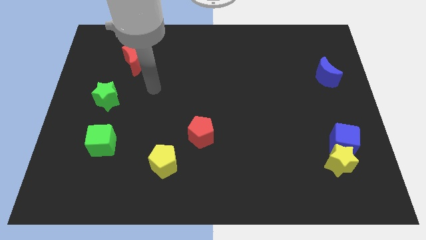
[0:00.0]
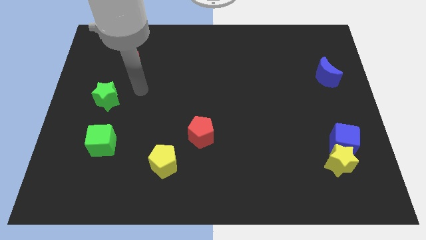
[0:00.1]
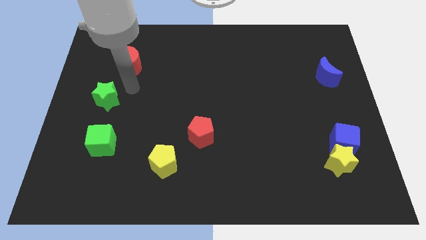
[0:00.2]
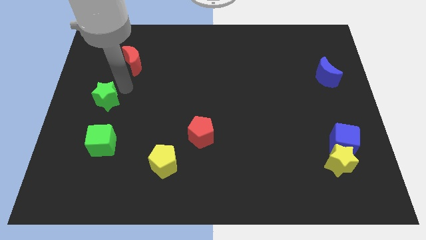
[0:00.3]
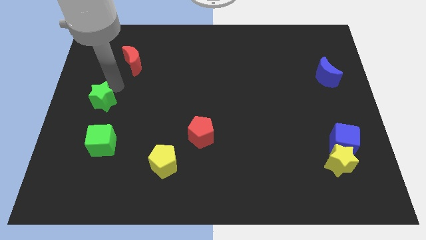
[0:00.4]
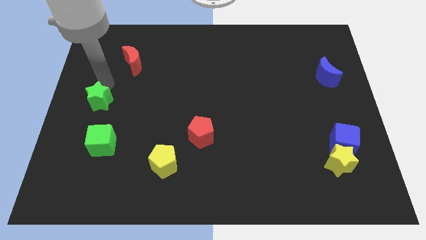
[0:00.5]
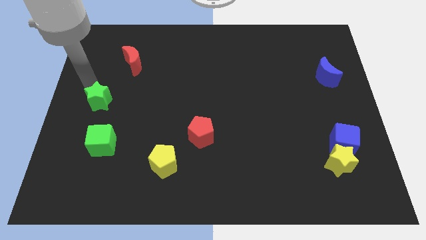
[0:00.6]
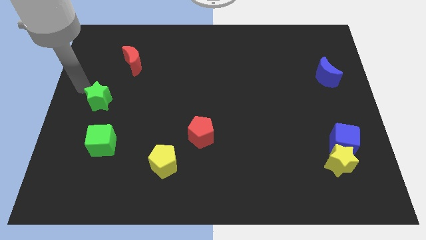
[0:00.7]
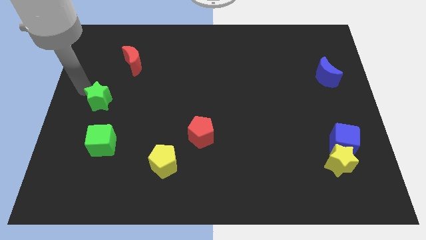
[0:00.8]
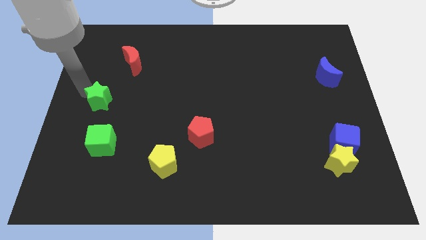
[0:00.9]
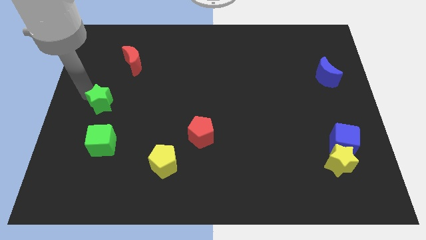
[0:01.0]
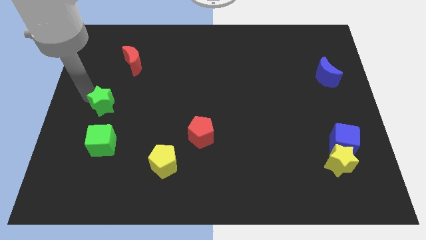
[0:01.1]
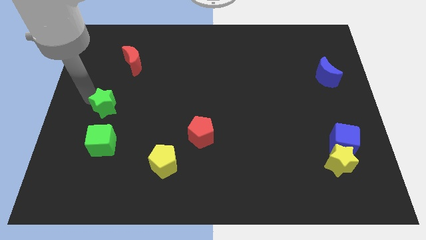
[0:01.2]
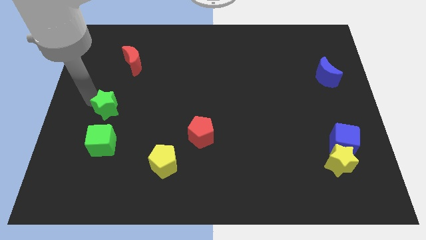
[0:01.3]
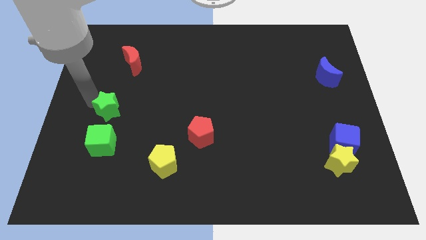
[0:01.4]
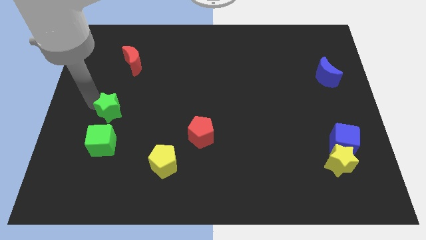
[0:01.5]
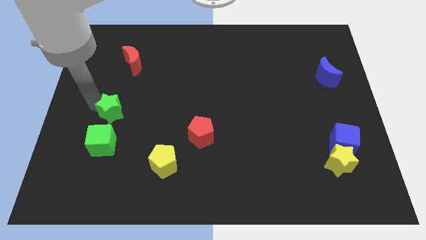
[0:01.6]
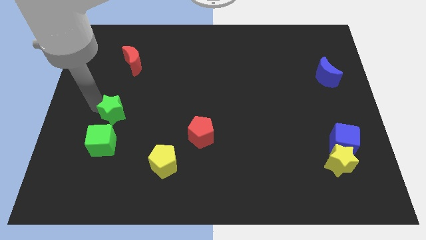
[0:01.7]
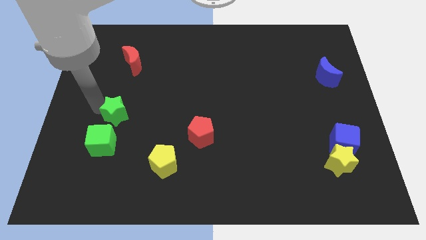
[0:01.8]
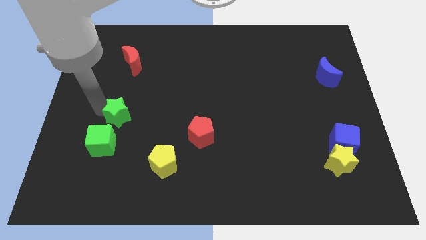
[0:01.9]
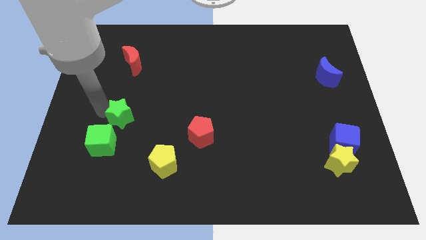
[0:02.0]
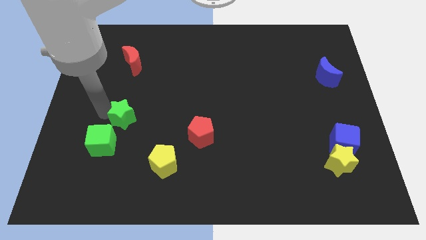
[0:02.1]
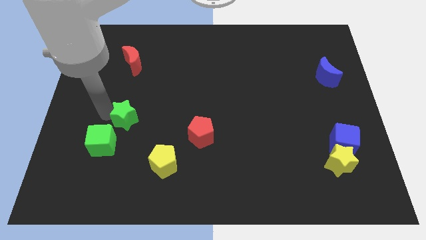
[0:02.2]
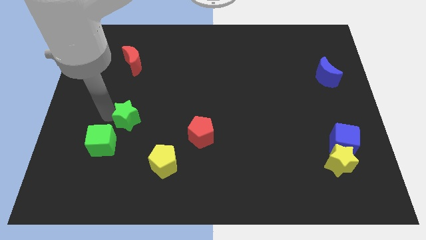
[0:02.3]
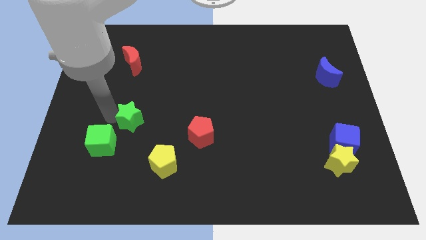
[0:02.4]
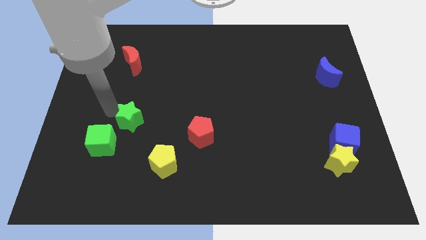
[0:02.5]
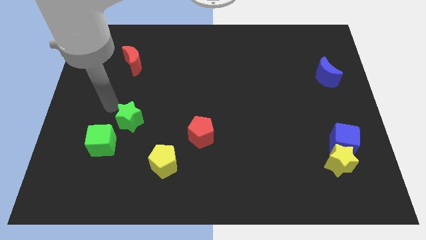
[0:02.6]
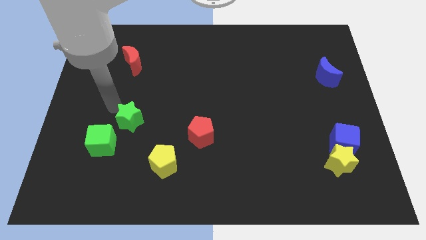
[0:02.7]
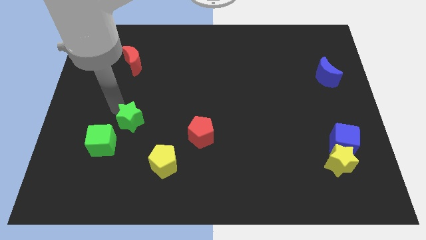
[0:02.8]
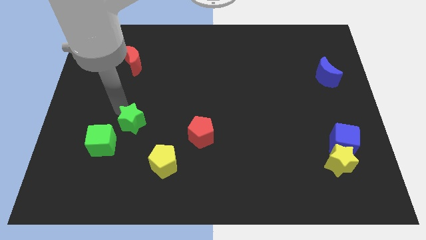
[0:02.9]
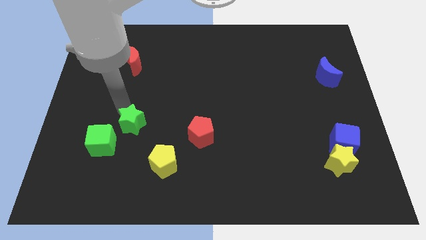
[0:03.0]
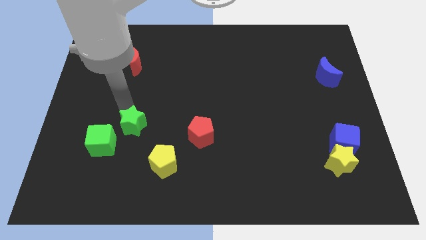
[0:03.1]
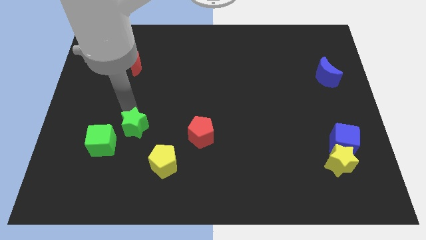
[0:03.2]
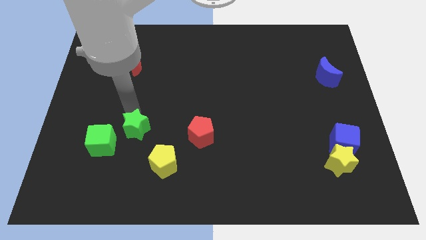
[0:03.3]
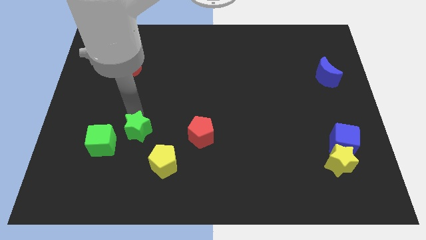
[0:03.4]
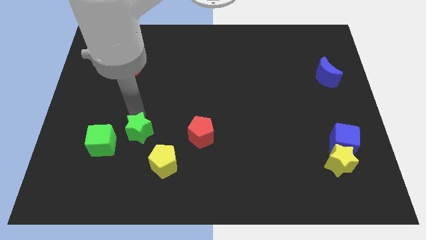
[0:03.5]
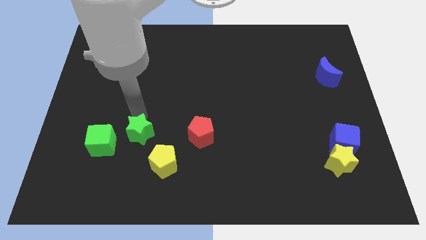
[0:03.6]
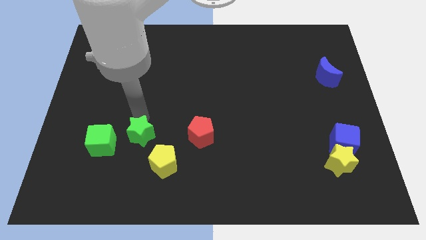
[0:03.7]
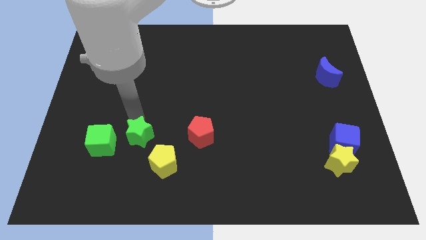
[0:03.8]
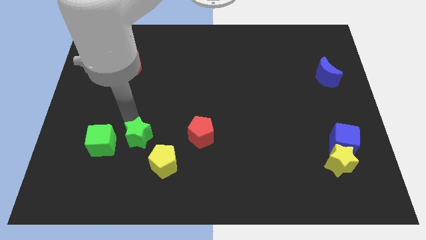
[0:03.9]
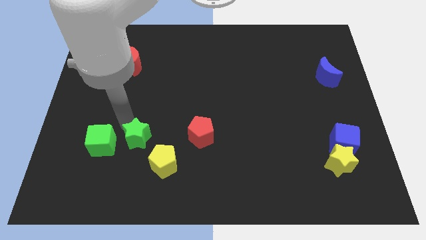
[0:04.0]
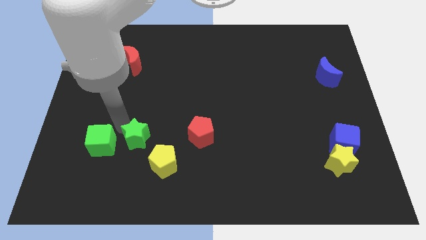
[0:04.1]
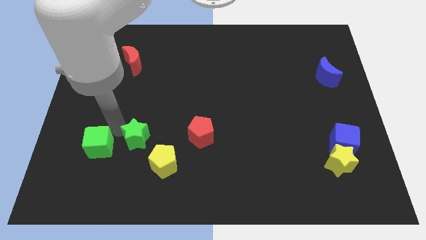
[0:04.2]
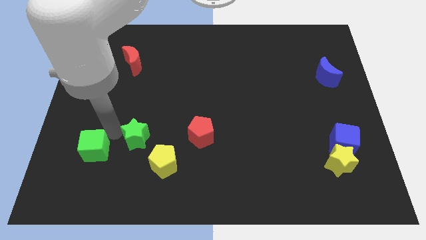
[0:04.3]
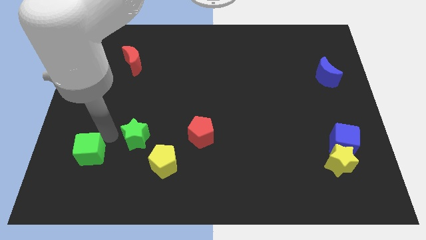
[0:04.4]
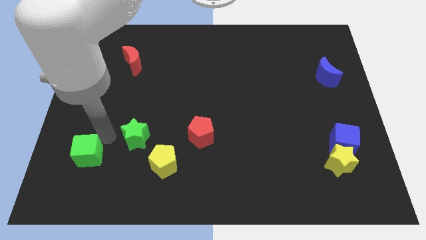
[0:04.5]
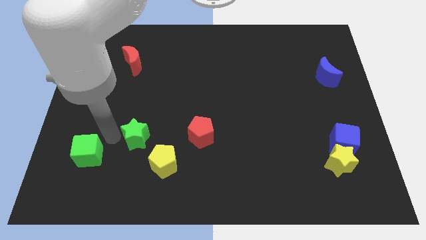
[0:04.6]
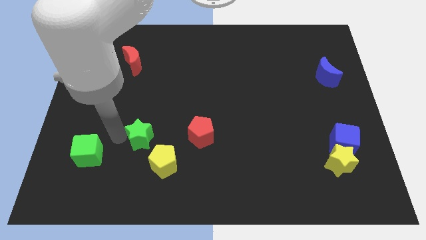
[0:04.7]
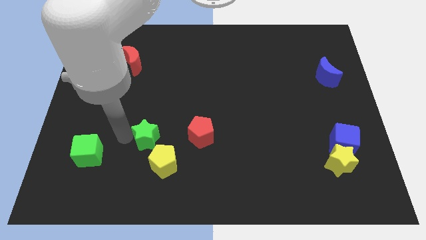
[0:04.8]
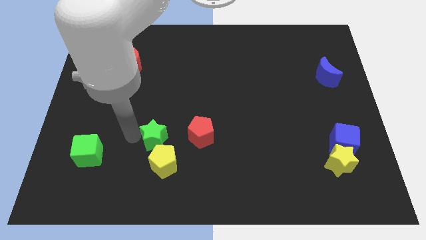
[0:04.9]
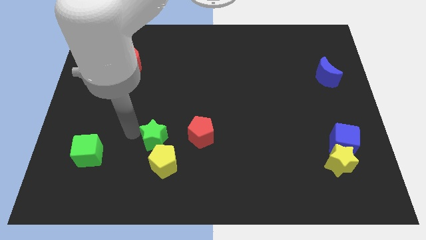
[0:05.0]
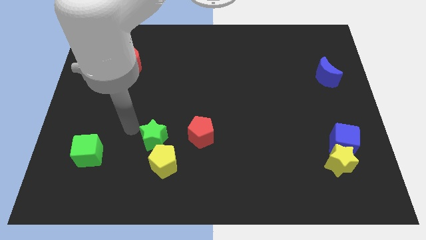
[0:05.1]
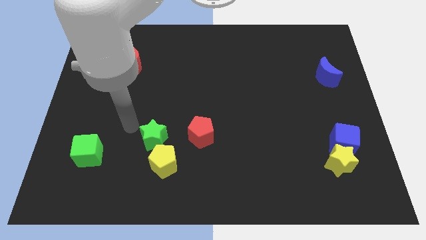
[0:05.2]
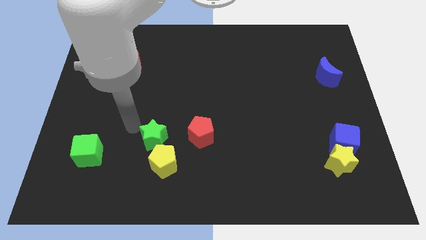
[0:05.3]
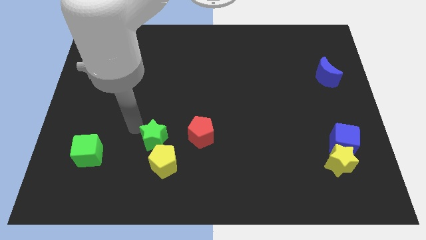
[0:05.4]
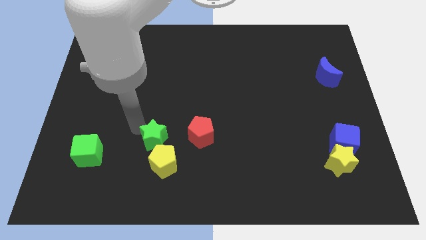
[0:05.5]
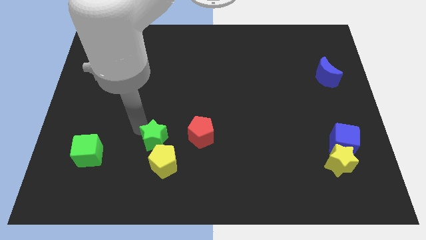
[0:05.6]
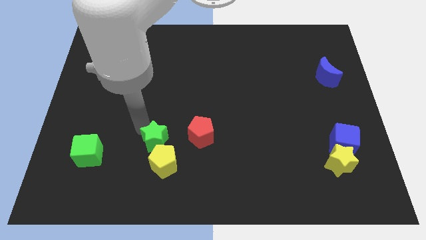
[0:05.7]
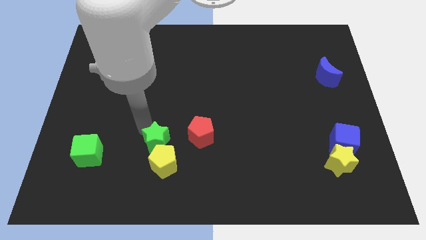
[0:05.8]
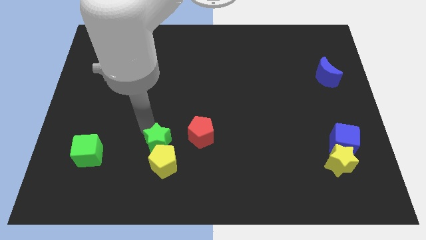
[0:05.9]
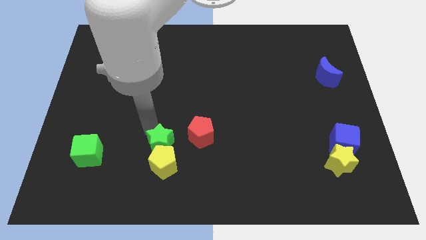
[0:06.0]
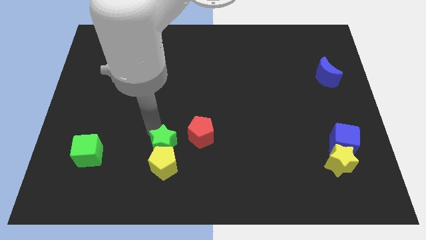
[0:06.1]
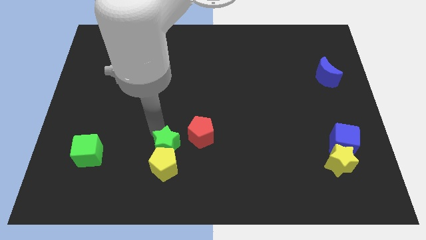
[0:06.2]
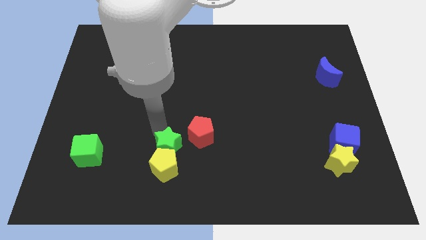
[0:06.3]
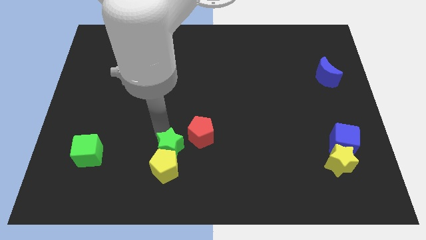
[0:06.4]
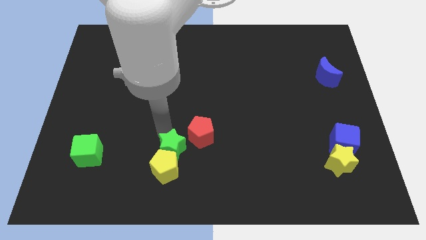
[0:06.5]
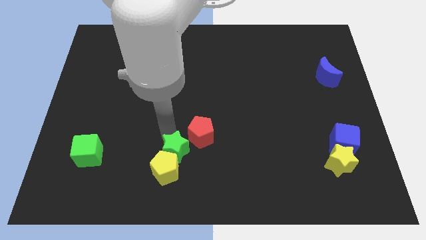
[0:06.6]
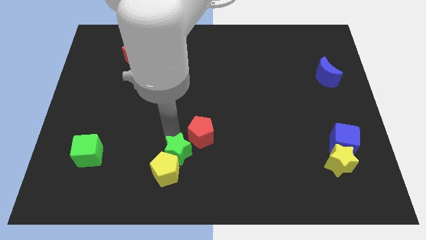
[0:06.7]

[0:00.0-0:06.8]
push the green star to the bottom side of the red pentagon
